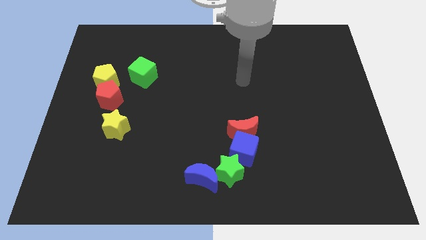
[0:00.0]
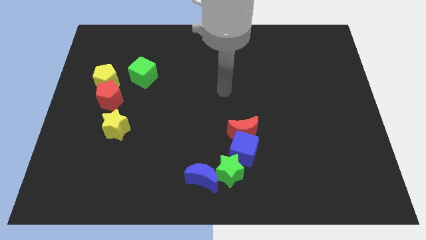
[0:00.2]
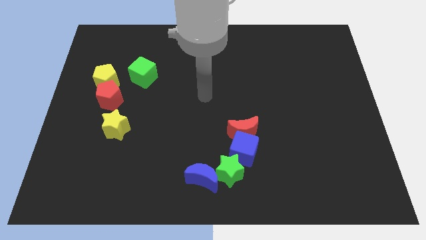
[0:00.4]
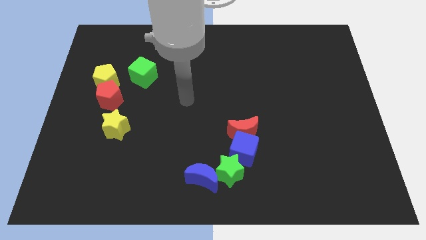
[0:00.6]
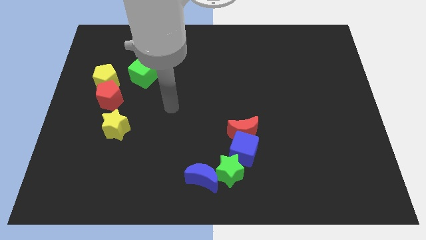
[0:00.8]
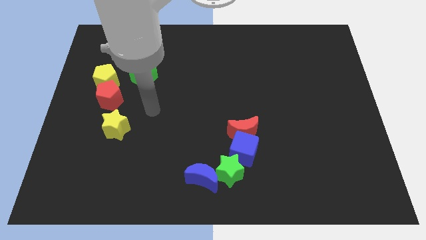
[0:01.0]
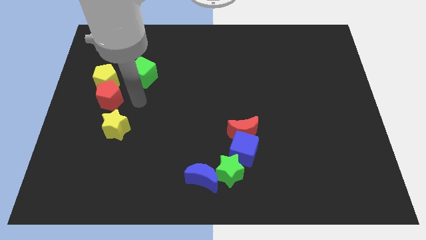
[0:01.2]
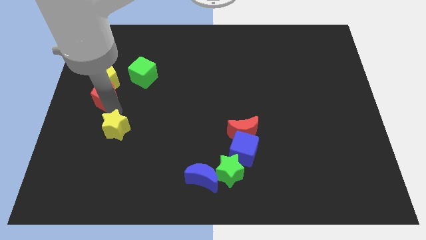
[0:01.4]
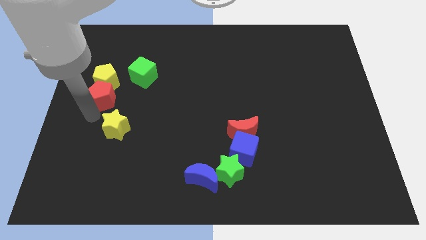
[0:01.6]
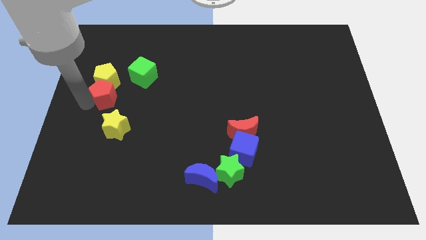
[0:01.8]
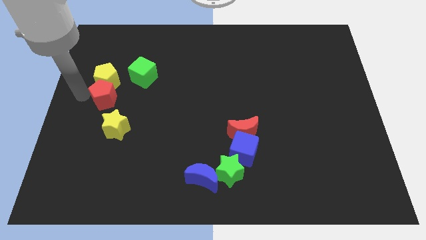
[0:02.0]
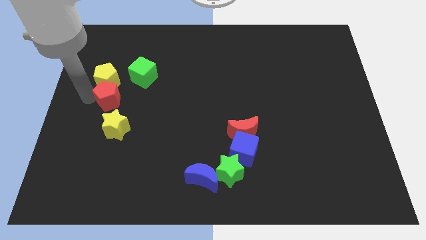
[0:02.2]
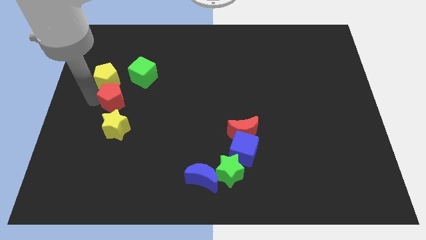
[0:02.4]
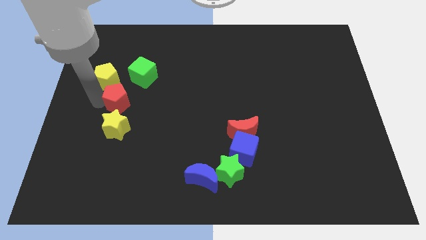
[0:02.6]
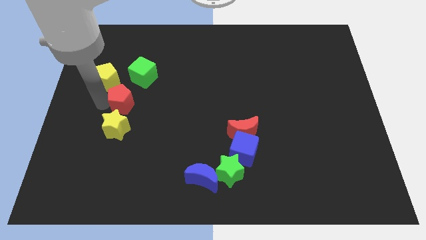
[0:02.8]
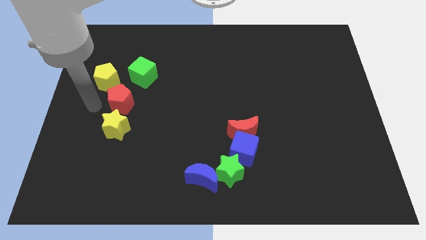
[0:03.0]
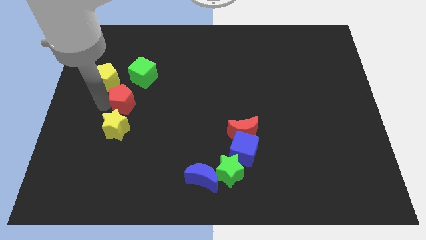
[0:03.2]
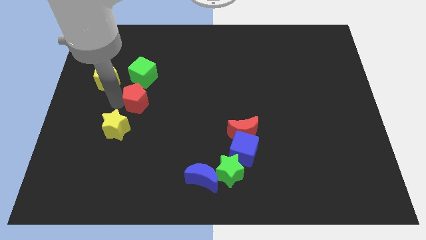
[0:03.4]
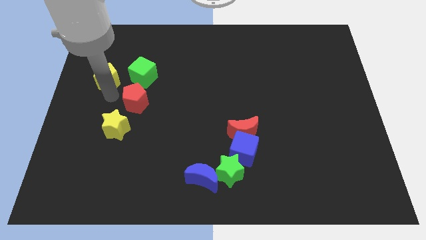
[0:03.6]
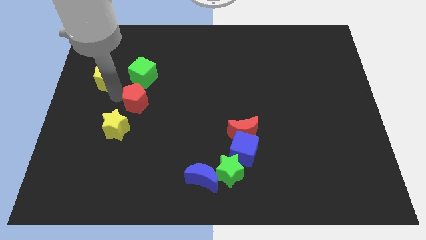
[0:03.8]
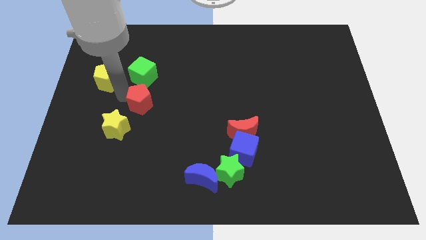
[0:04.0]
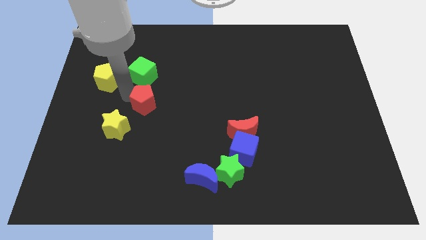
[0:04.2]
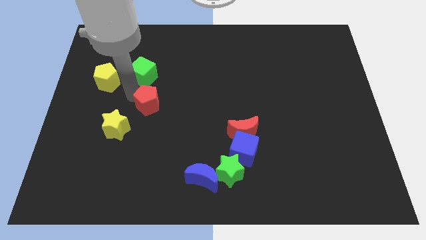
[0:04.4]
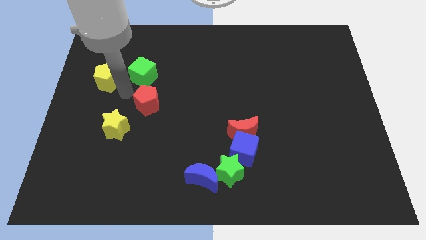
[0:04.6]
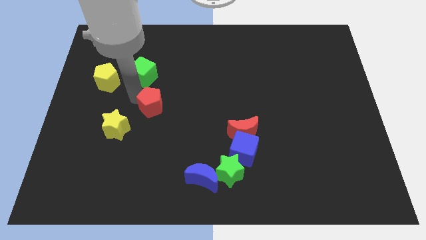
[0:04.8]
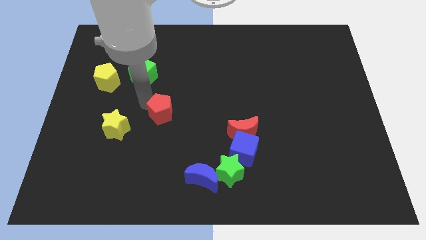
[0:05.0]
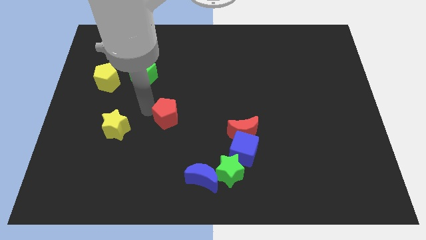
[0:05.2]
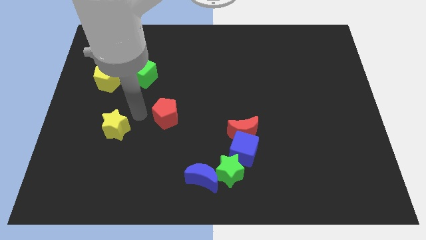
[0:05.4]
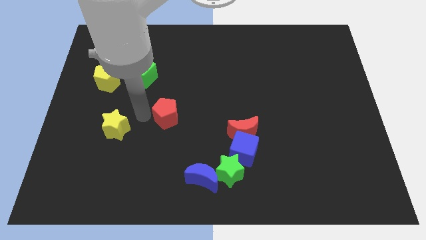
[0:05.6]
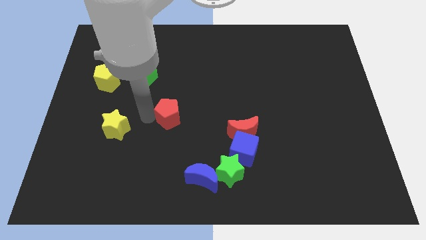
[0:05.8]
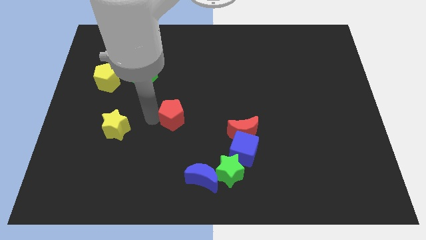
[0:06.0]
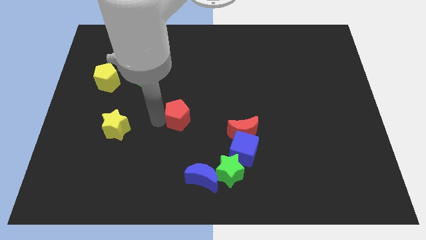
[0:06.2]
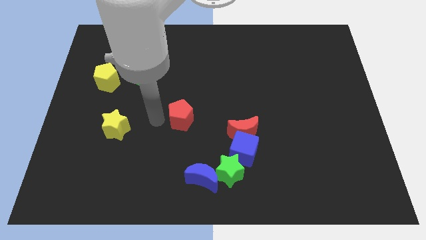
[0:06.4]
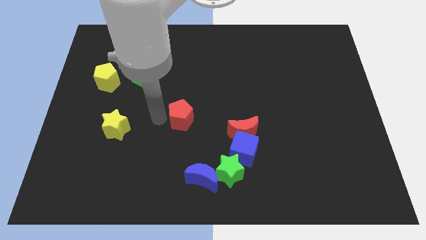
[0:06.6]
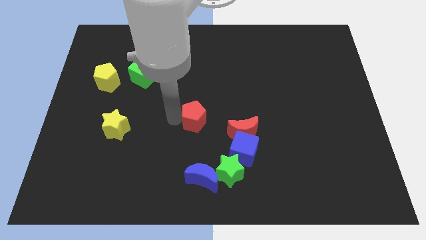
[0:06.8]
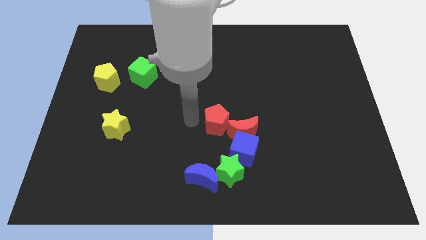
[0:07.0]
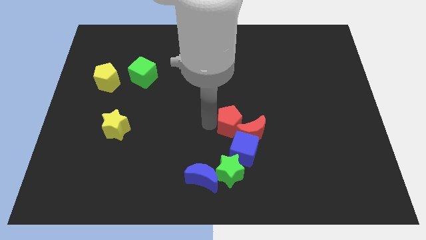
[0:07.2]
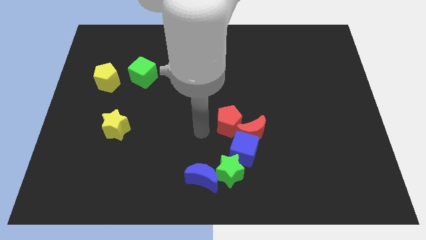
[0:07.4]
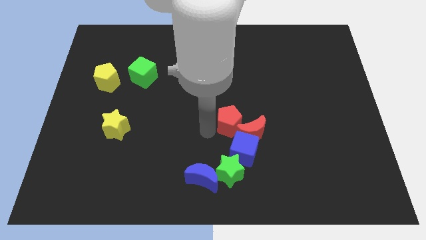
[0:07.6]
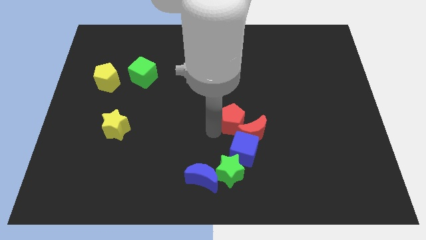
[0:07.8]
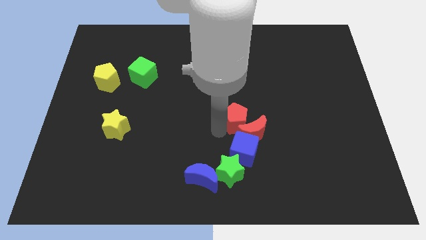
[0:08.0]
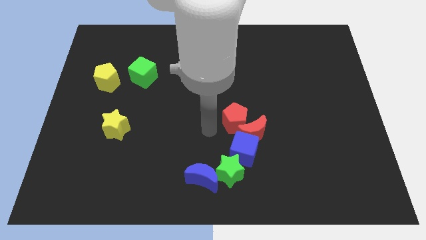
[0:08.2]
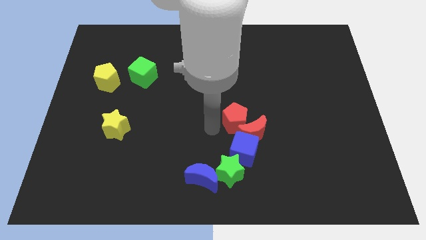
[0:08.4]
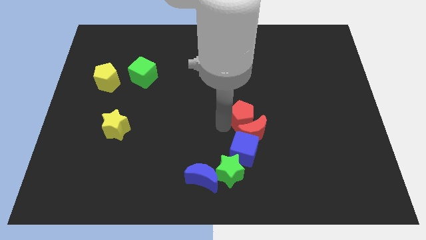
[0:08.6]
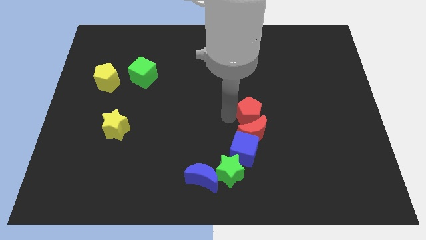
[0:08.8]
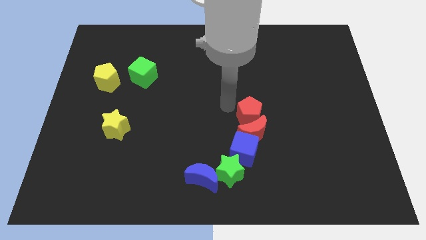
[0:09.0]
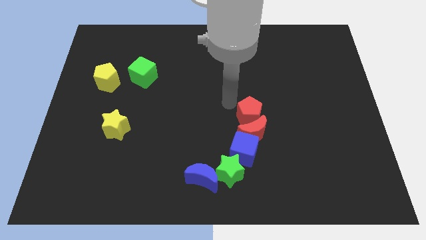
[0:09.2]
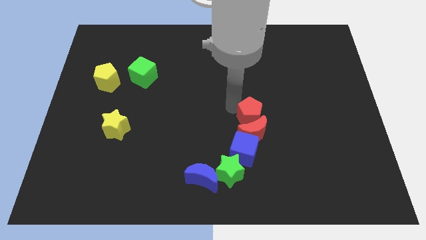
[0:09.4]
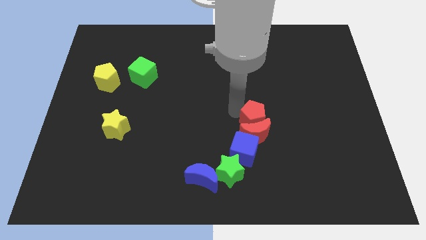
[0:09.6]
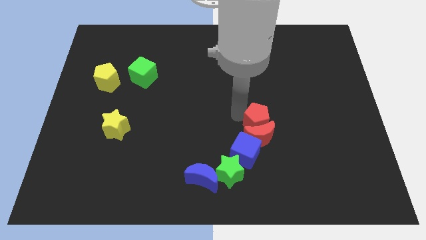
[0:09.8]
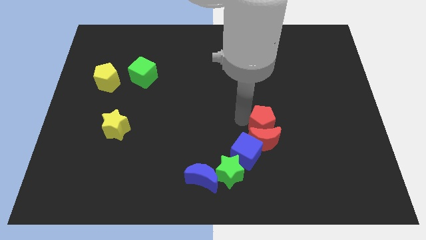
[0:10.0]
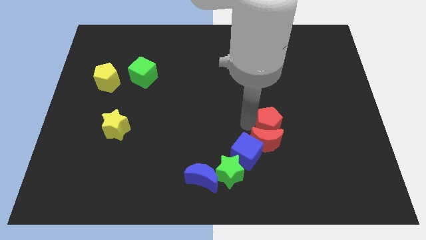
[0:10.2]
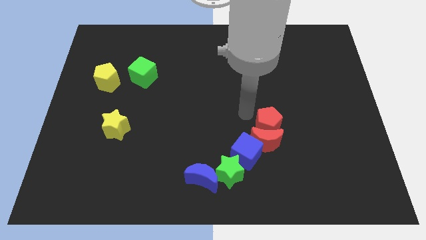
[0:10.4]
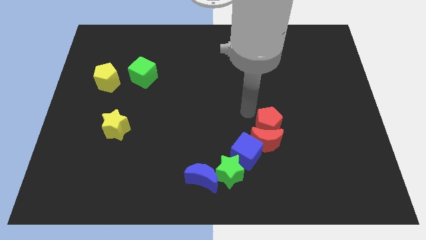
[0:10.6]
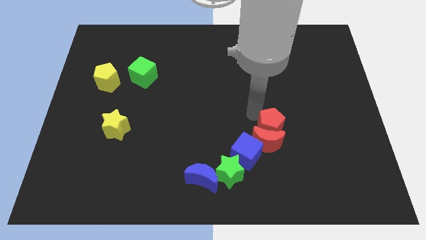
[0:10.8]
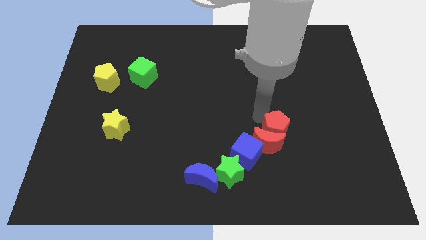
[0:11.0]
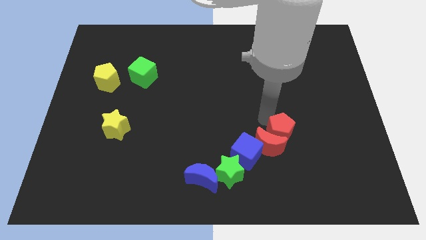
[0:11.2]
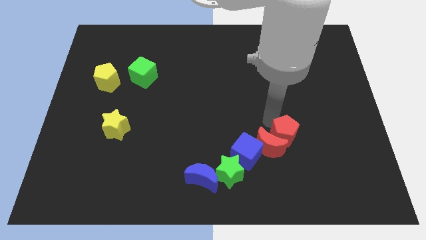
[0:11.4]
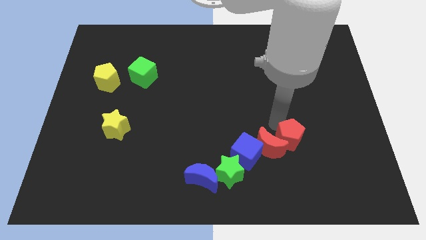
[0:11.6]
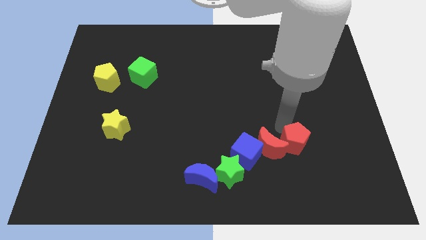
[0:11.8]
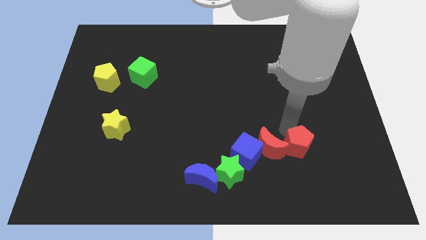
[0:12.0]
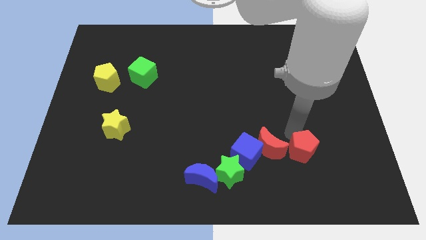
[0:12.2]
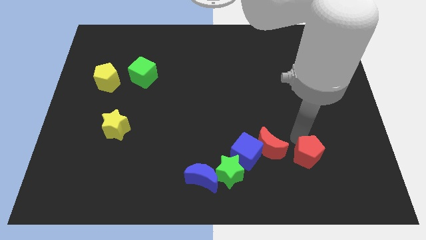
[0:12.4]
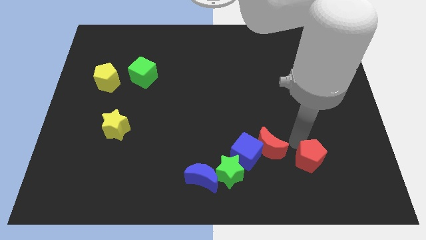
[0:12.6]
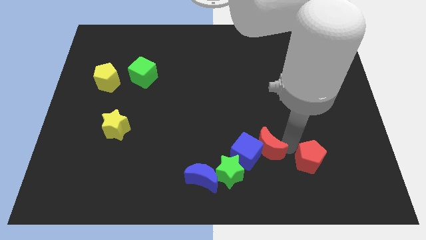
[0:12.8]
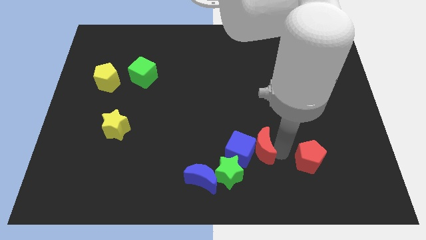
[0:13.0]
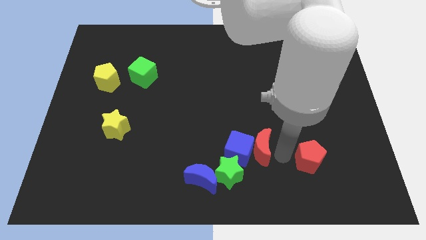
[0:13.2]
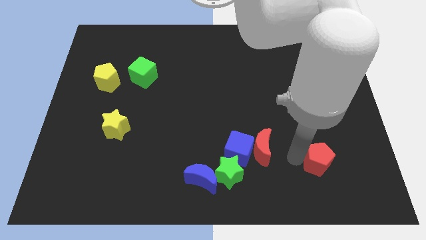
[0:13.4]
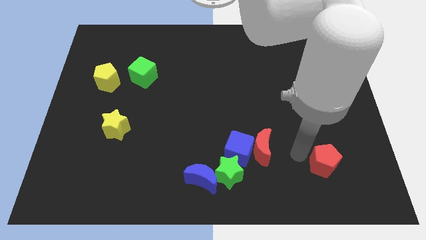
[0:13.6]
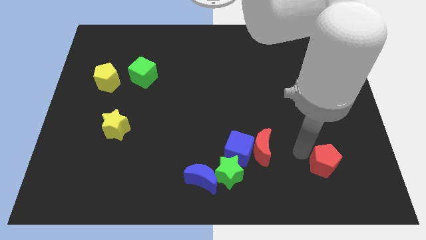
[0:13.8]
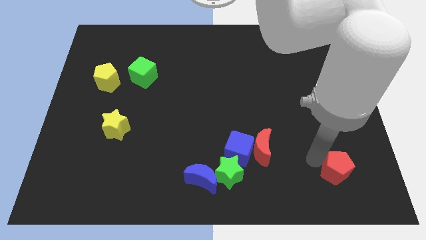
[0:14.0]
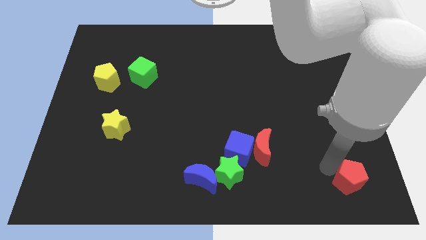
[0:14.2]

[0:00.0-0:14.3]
move the red pentagon to the bottom right of the board
